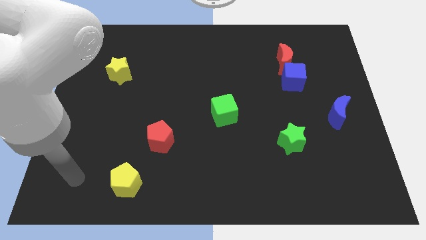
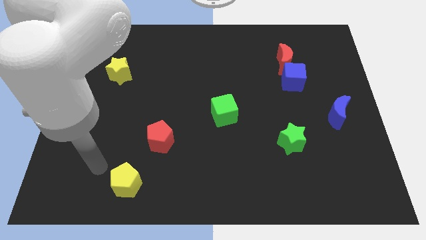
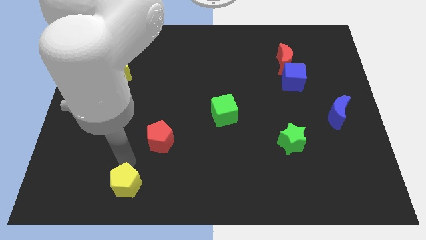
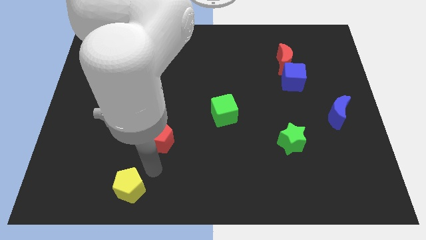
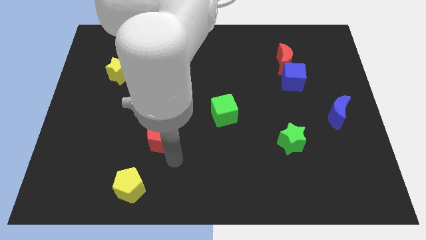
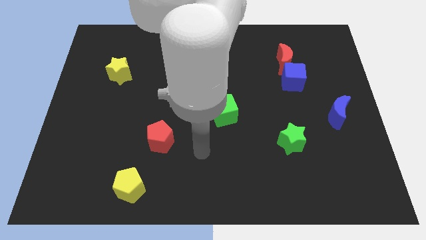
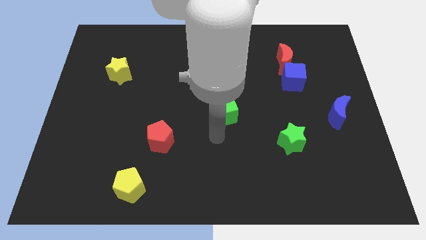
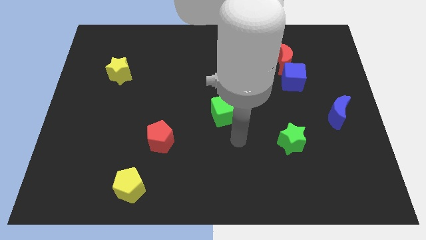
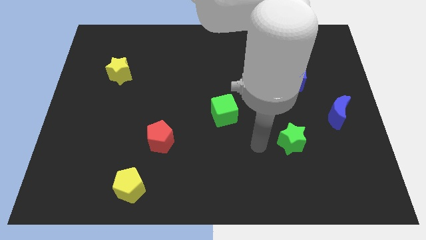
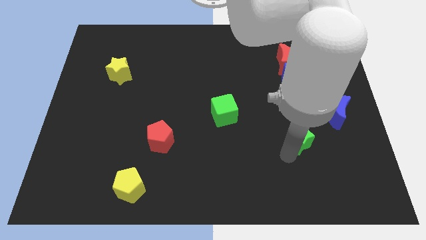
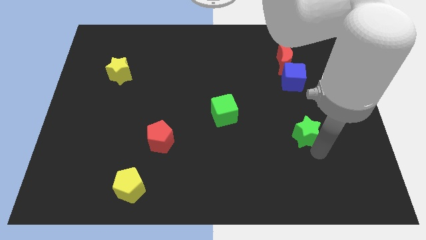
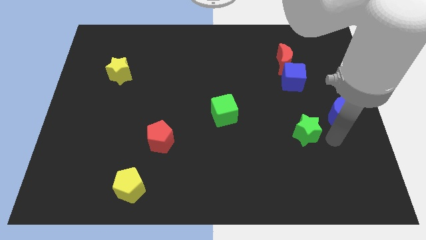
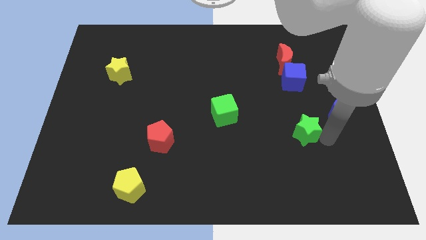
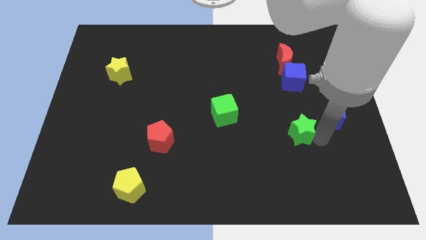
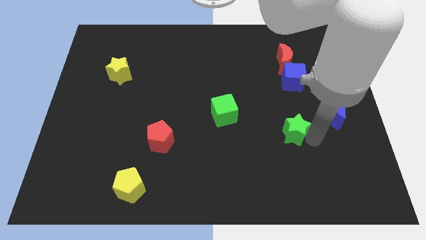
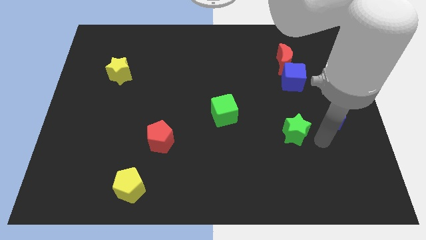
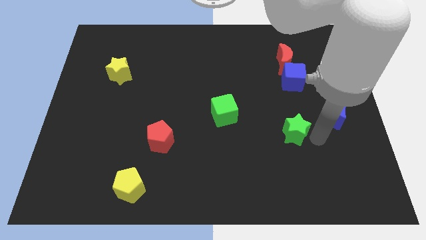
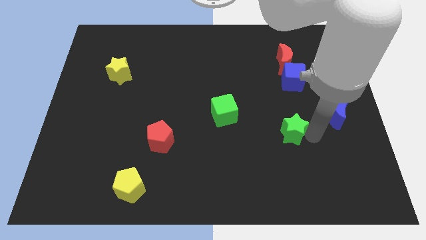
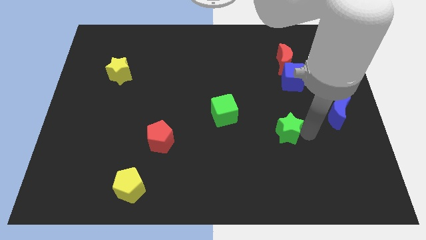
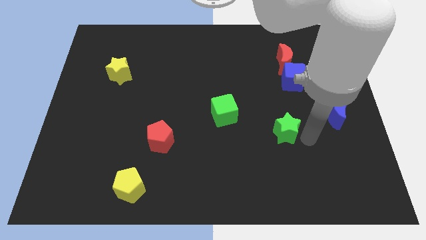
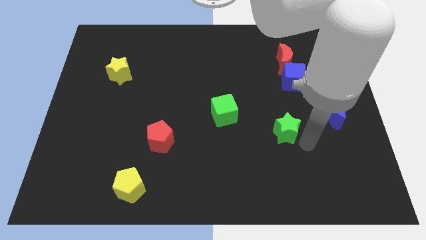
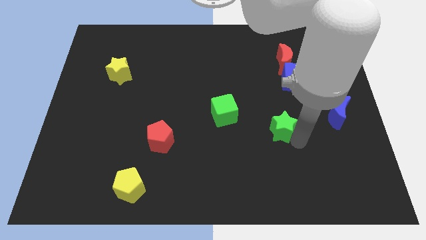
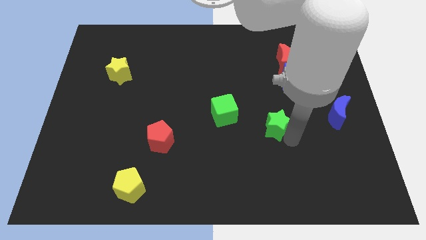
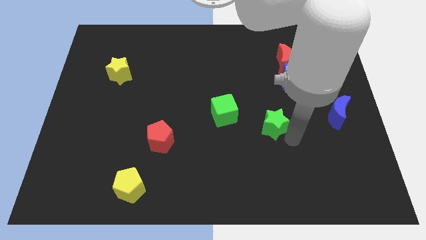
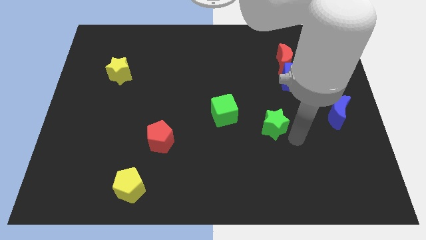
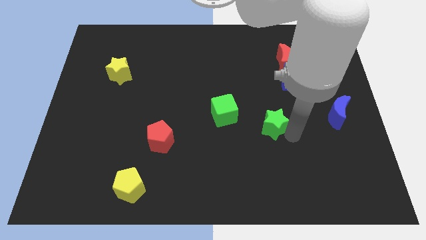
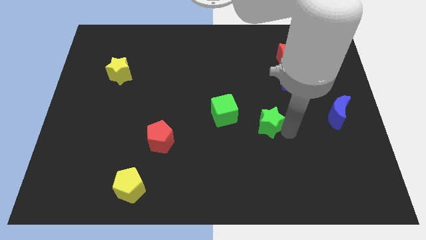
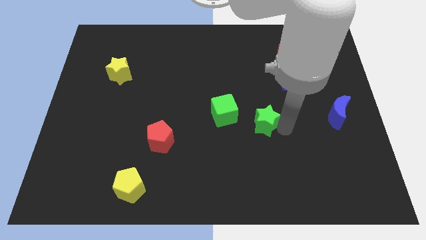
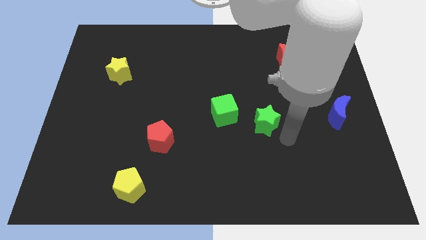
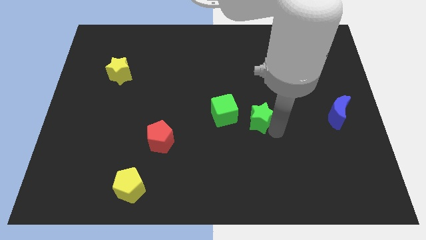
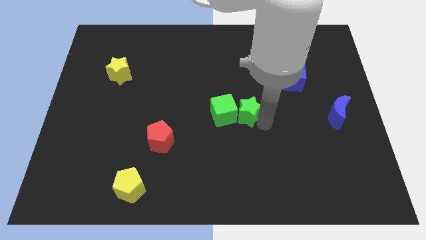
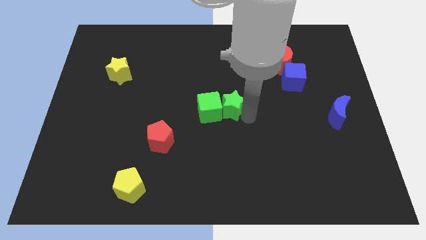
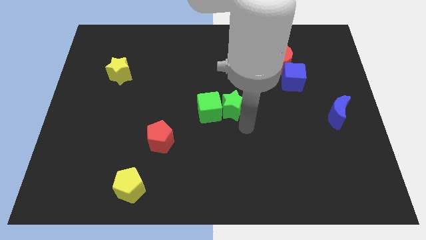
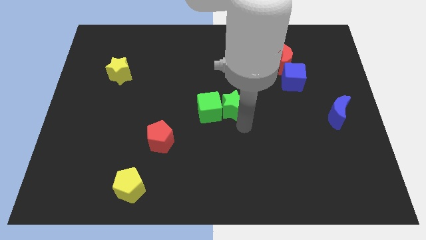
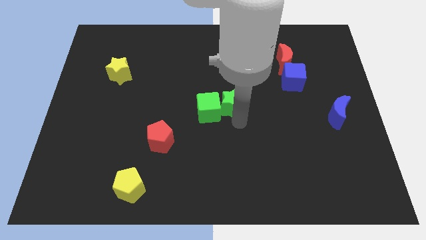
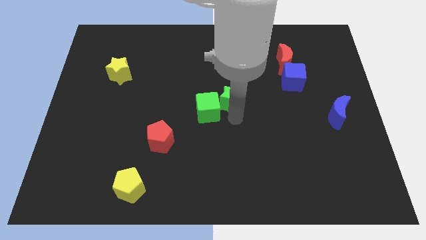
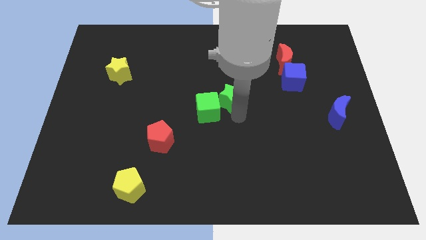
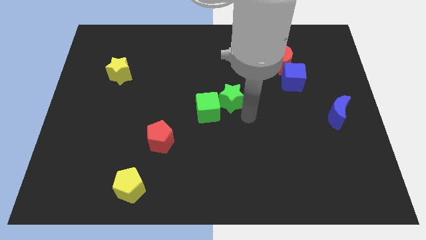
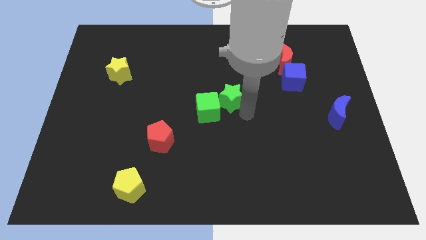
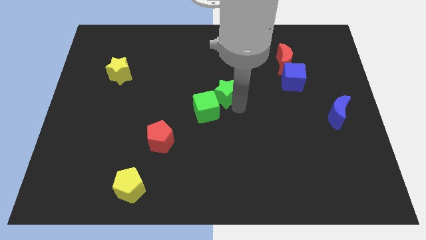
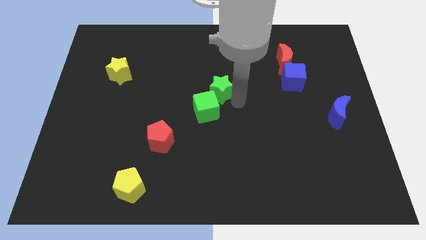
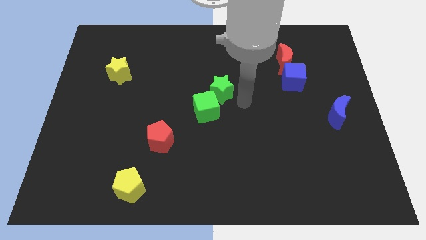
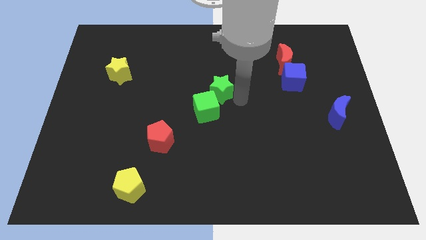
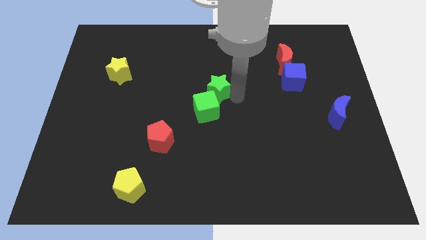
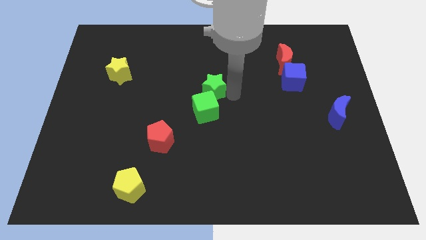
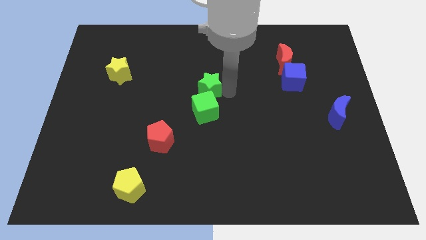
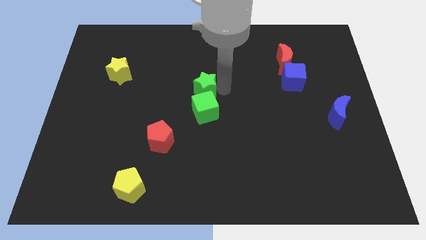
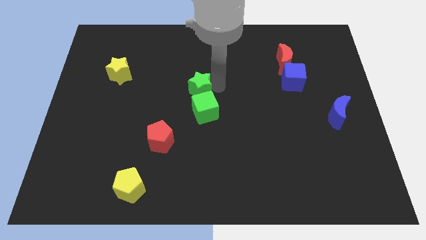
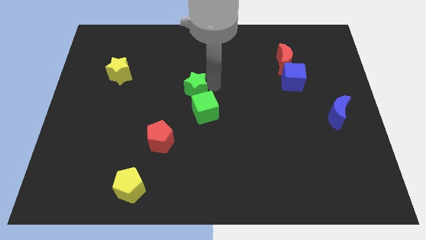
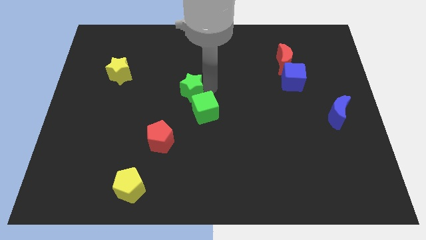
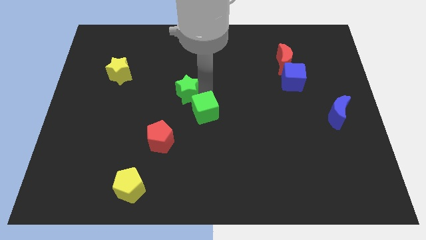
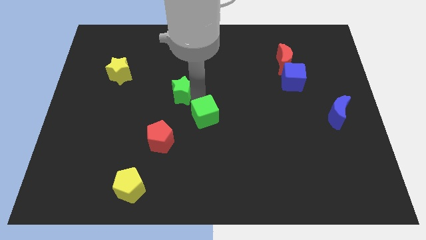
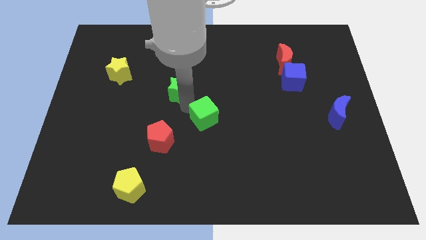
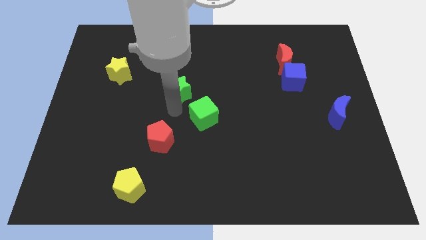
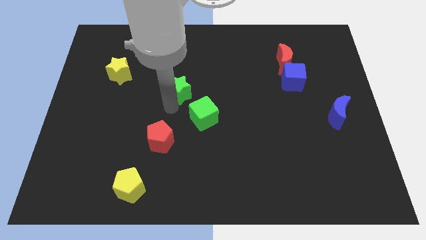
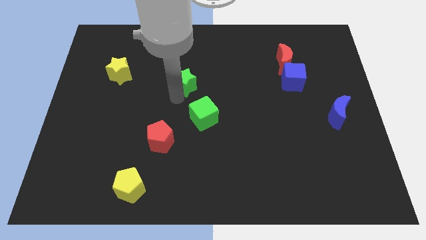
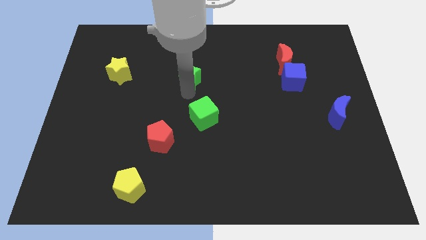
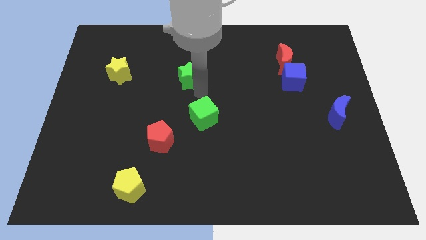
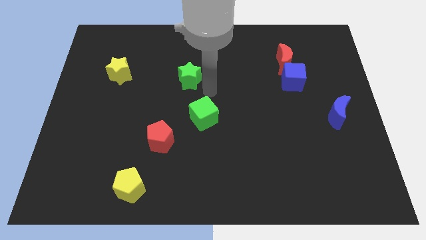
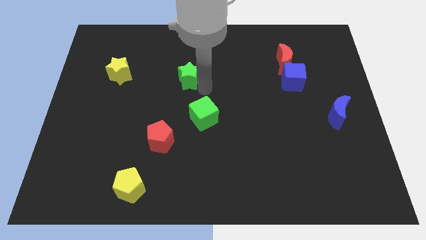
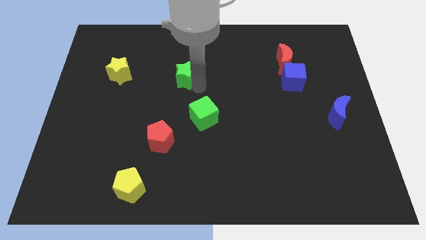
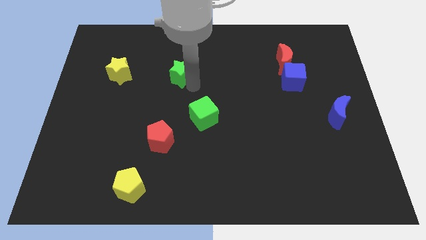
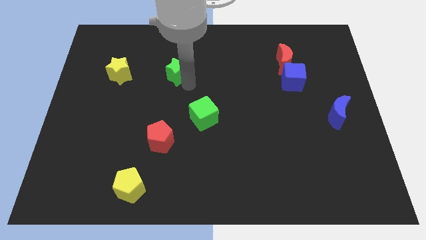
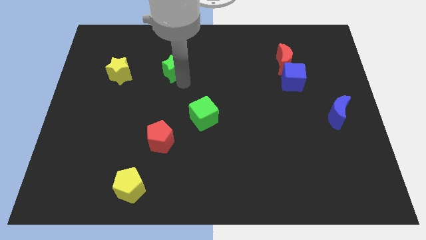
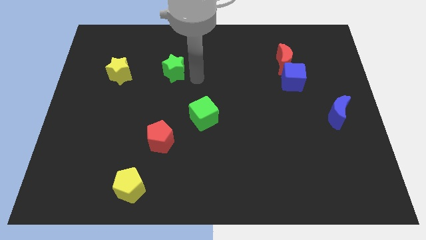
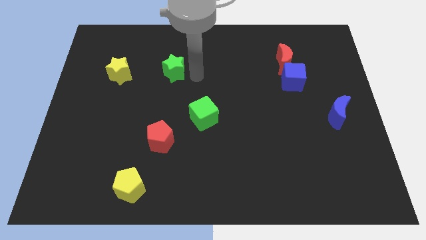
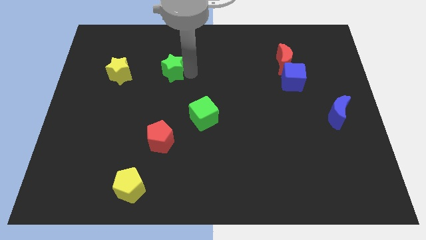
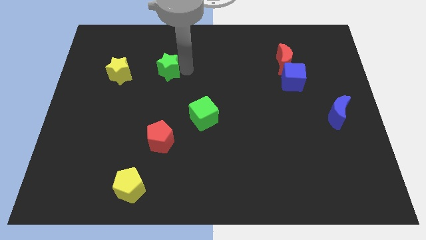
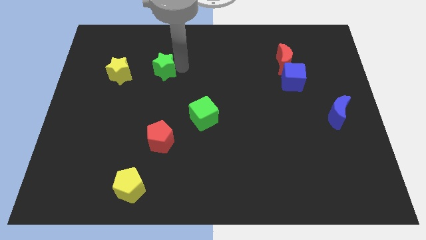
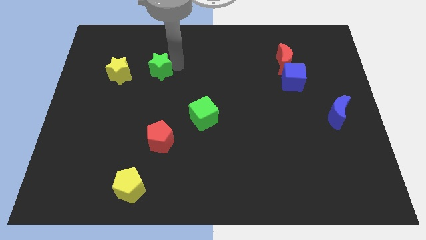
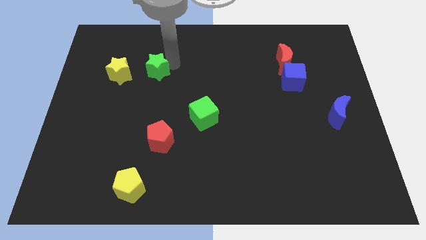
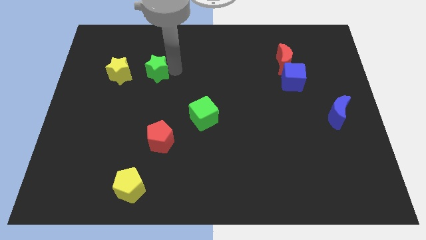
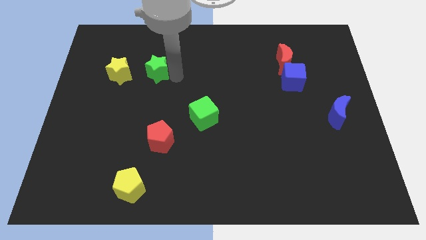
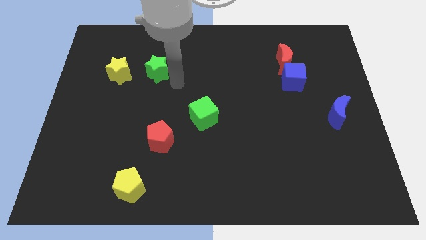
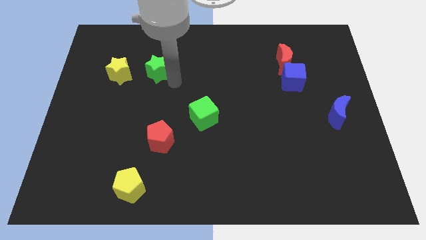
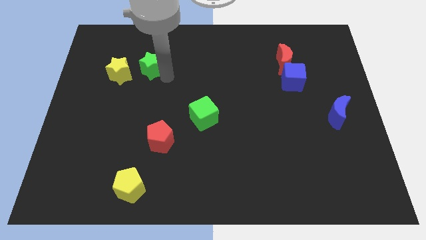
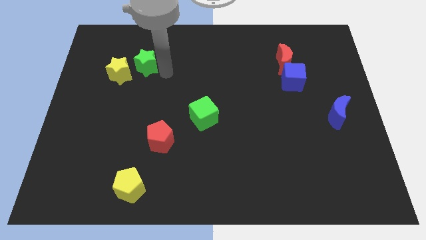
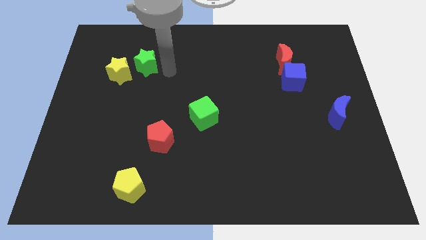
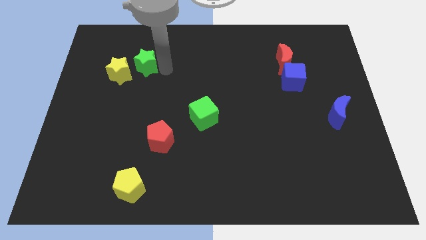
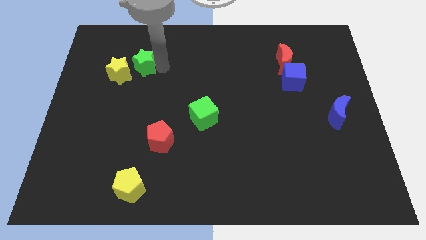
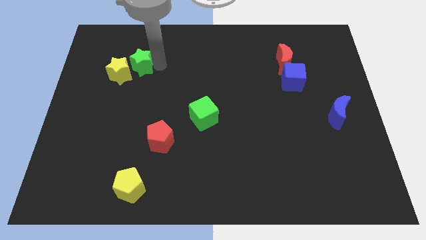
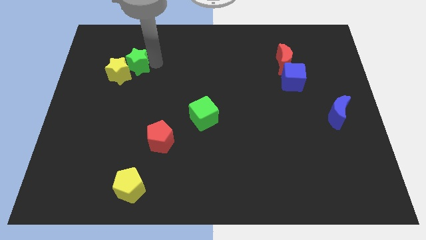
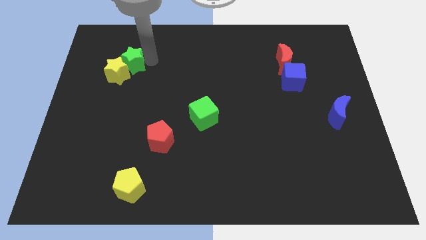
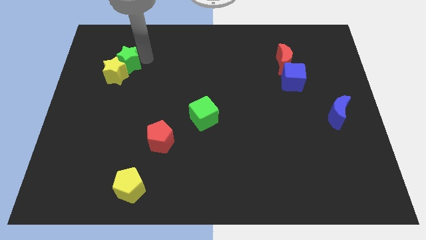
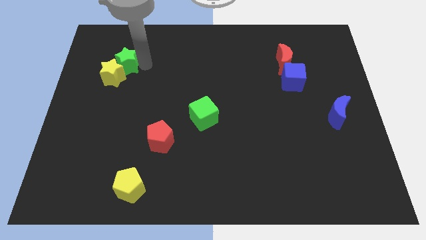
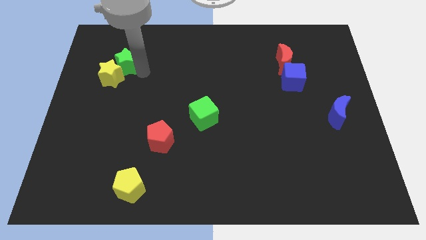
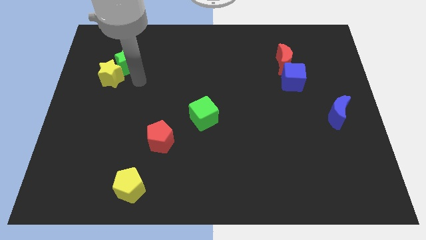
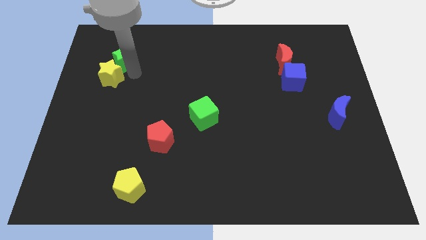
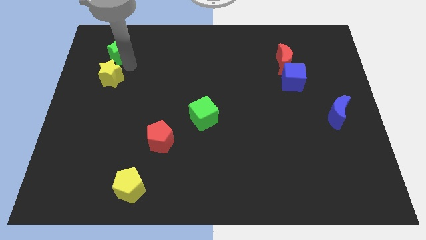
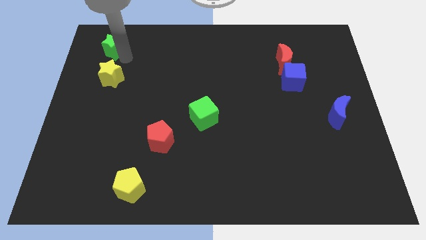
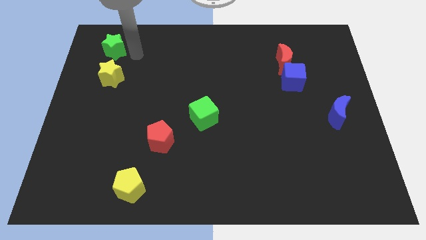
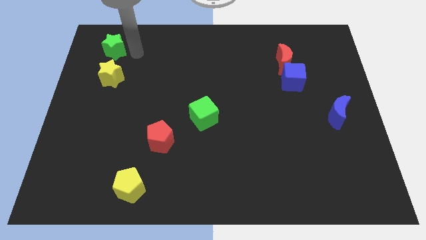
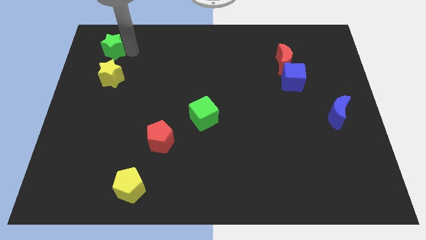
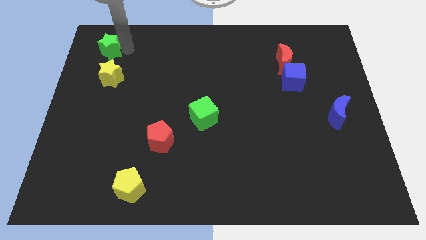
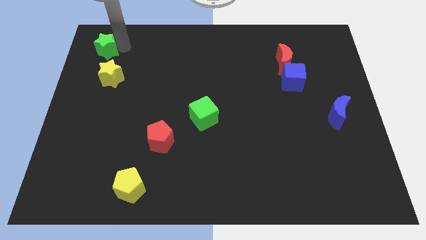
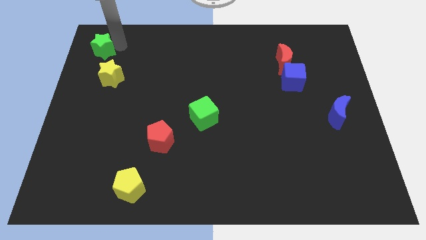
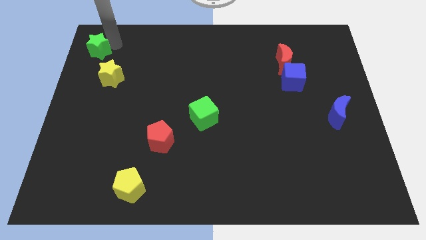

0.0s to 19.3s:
slide the green star to the top left
